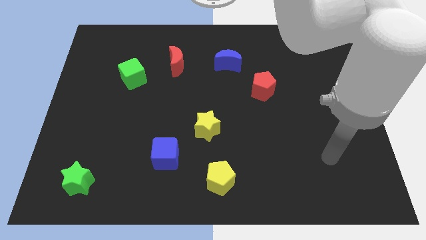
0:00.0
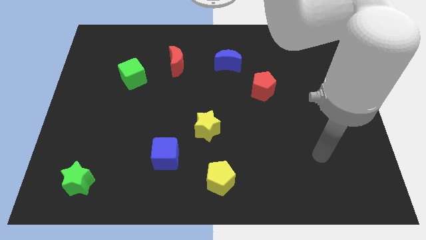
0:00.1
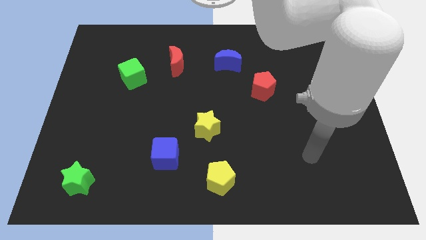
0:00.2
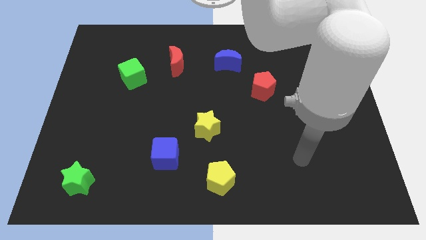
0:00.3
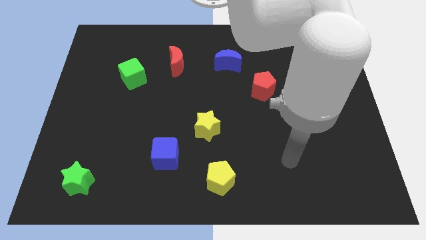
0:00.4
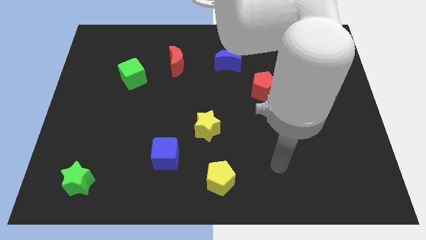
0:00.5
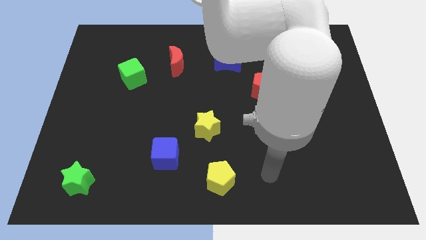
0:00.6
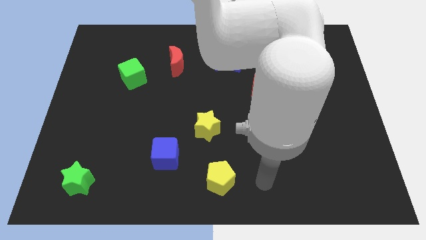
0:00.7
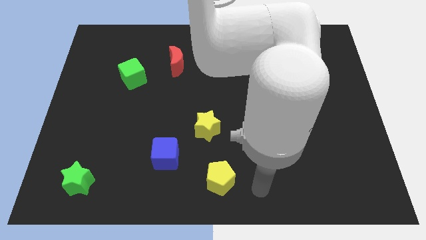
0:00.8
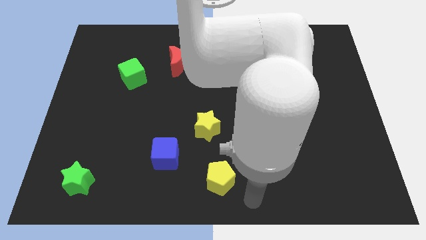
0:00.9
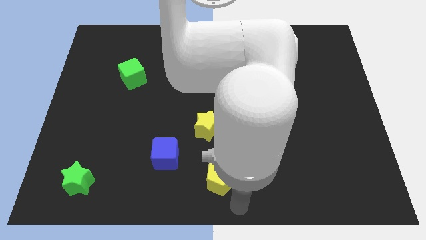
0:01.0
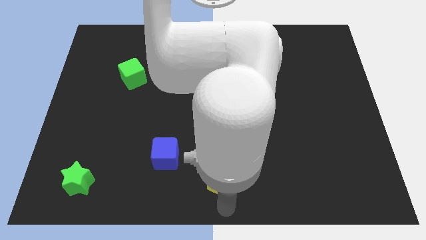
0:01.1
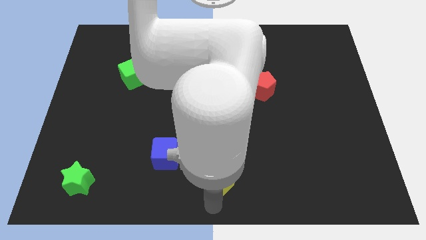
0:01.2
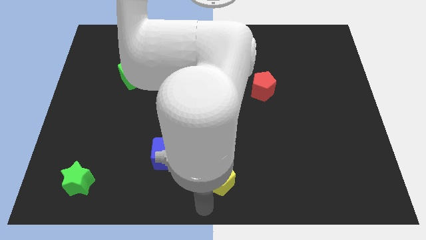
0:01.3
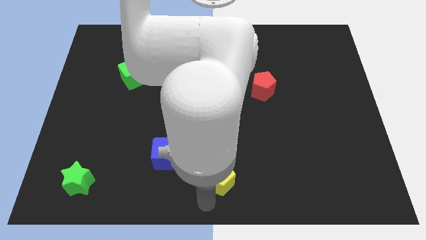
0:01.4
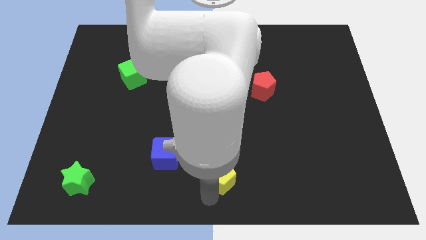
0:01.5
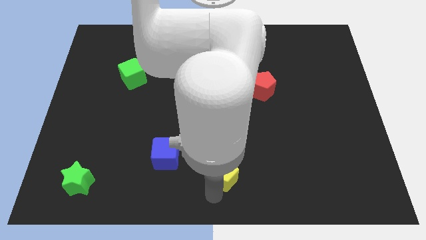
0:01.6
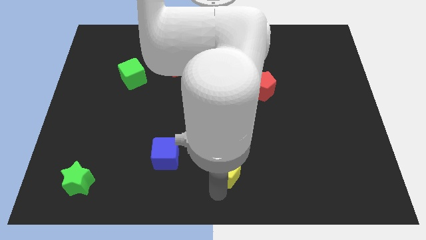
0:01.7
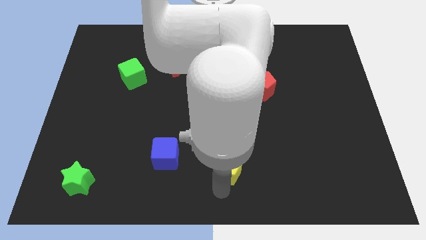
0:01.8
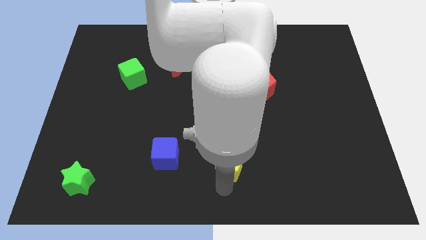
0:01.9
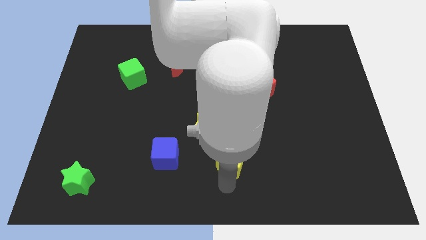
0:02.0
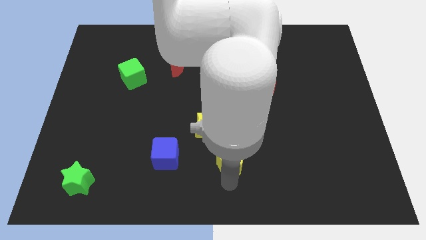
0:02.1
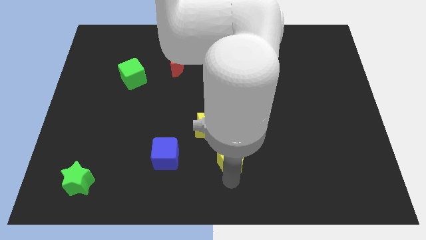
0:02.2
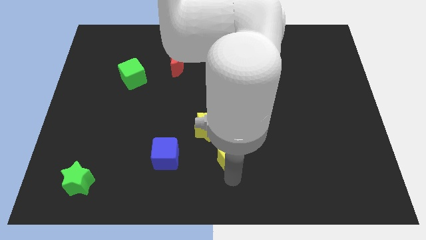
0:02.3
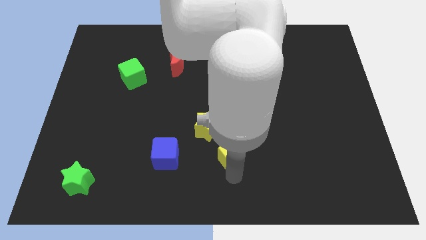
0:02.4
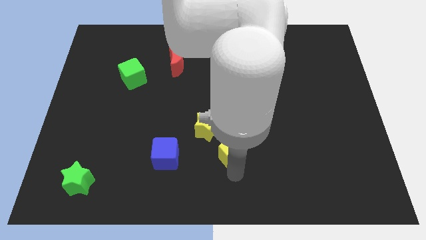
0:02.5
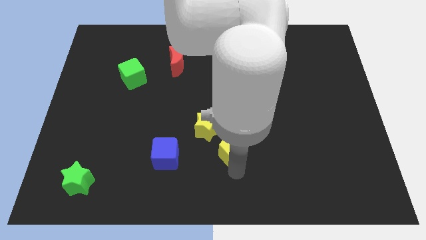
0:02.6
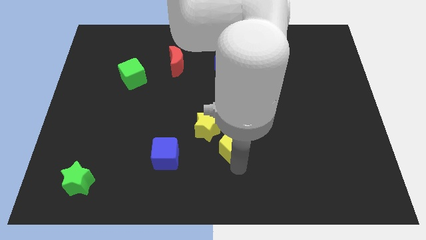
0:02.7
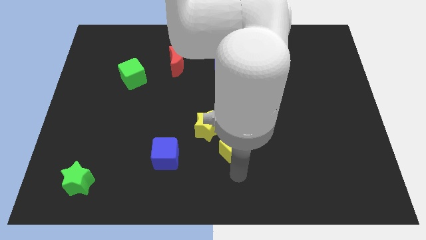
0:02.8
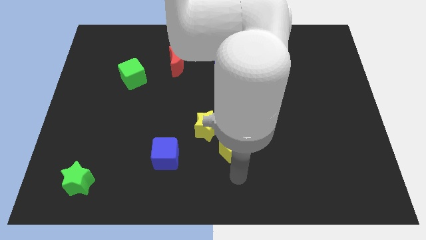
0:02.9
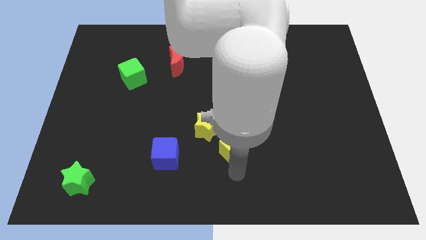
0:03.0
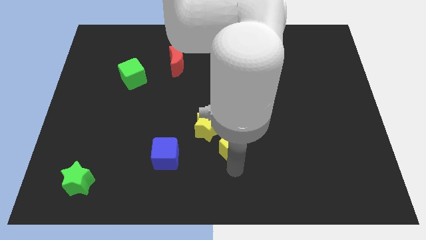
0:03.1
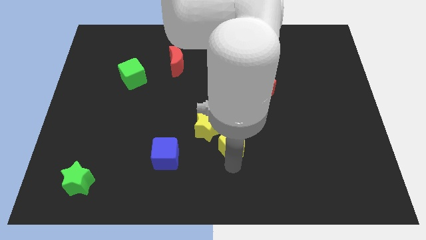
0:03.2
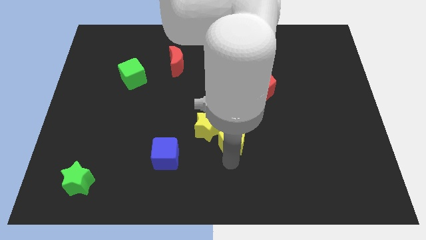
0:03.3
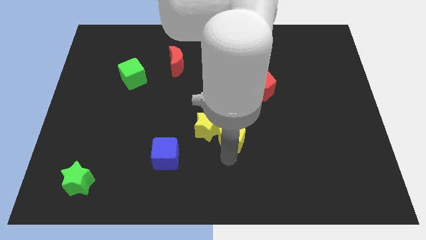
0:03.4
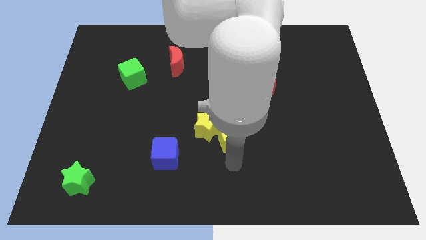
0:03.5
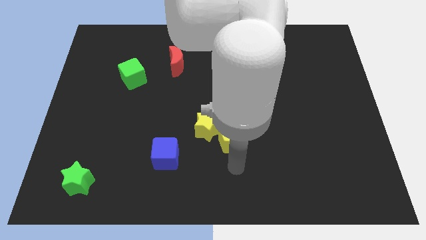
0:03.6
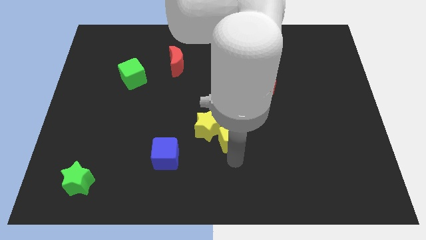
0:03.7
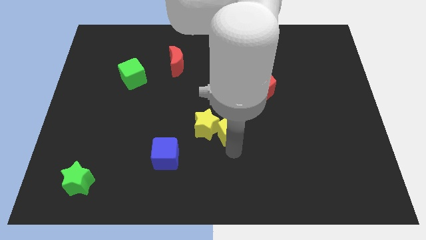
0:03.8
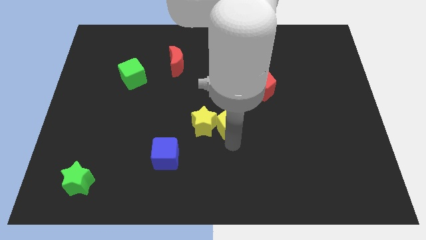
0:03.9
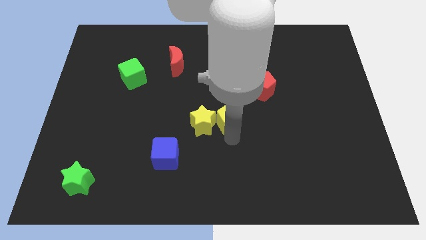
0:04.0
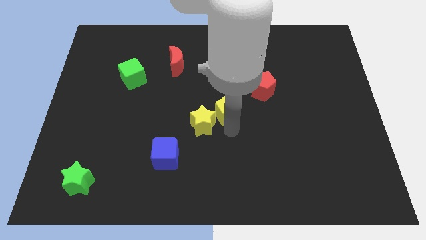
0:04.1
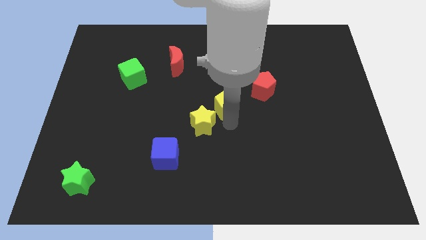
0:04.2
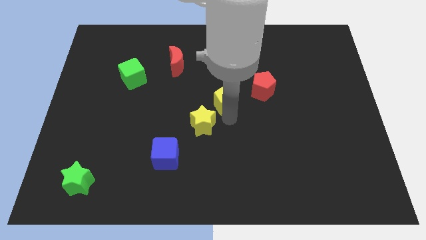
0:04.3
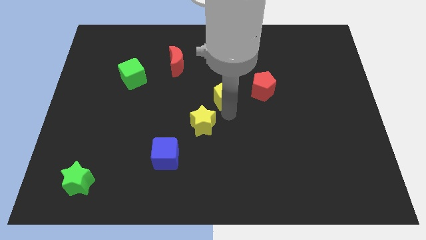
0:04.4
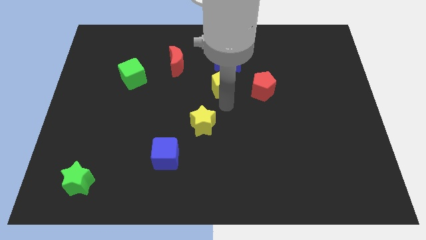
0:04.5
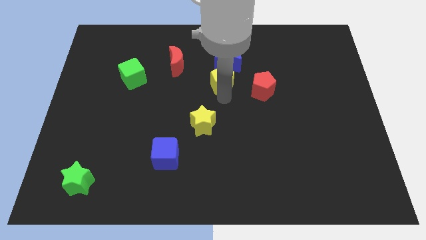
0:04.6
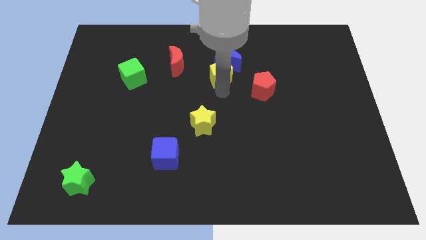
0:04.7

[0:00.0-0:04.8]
put the yellow pentagon to the blue moon

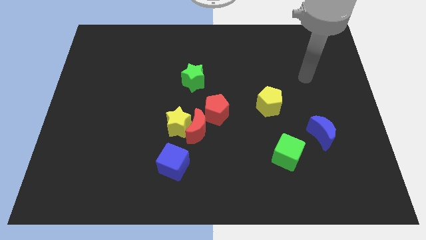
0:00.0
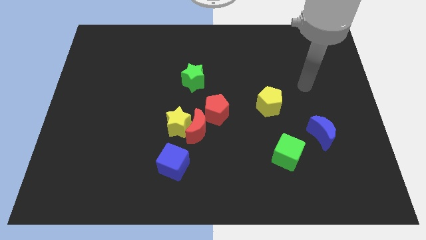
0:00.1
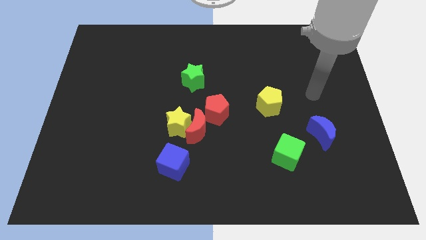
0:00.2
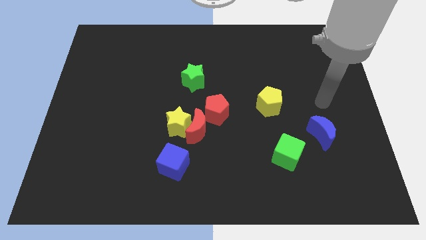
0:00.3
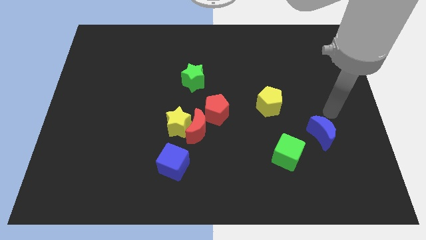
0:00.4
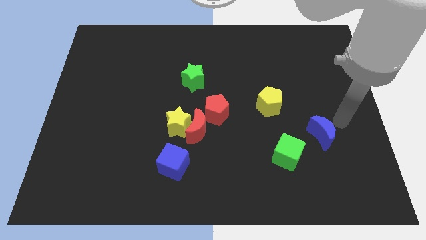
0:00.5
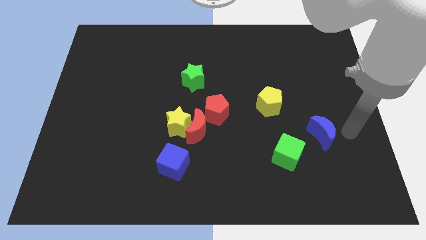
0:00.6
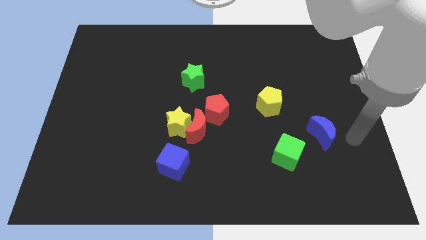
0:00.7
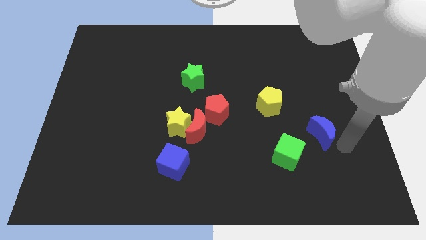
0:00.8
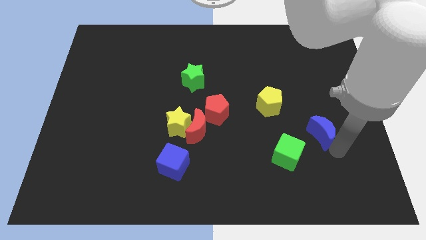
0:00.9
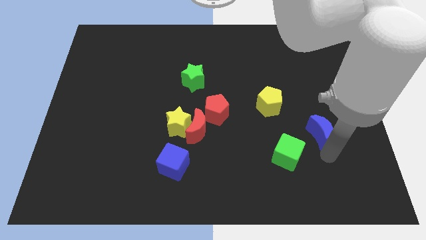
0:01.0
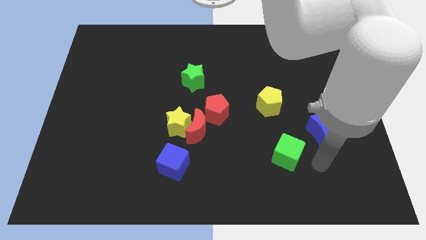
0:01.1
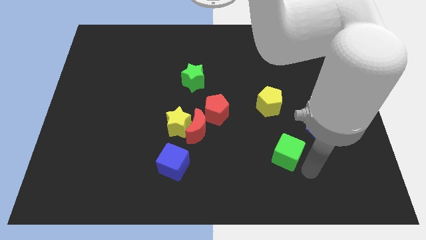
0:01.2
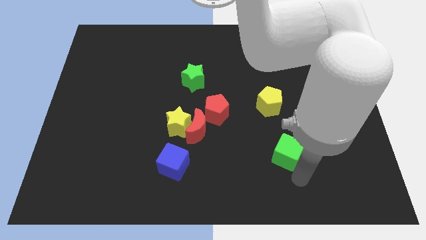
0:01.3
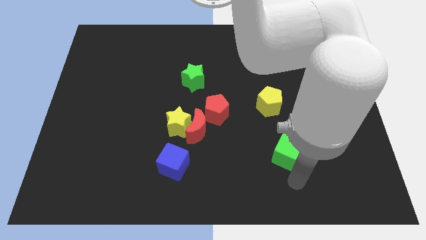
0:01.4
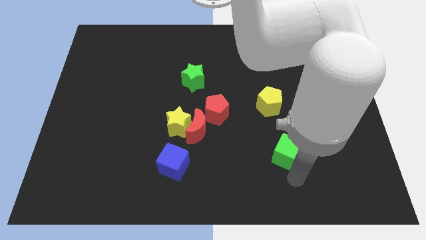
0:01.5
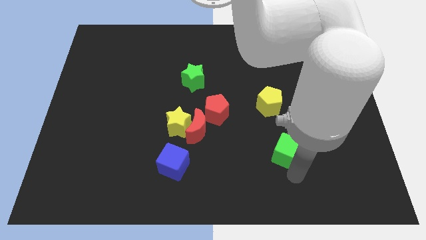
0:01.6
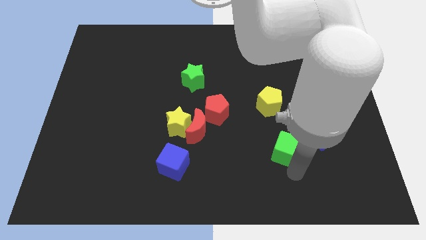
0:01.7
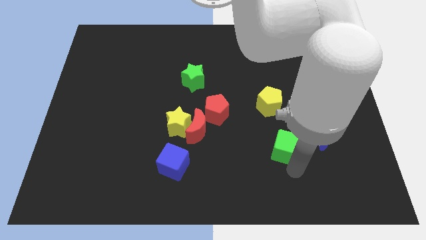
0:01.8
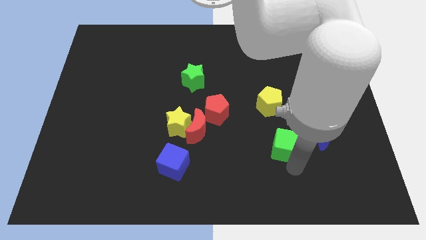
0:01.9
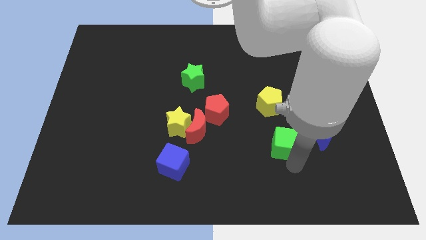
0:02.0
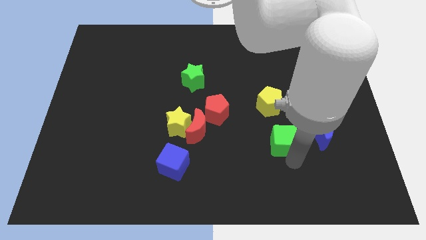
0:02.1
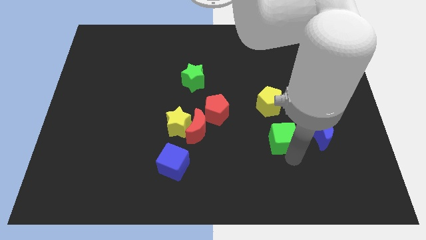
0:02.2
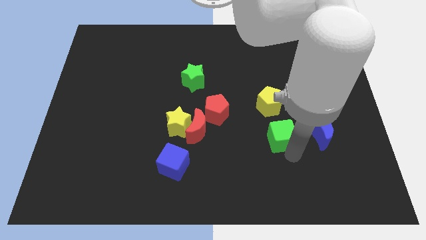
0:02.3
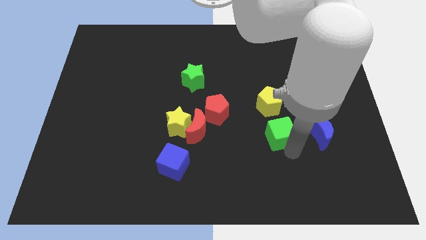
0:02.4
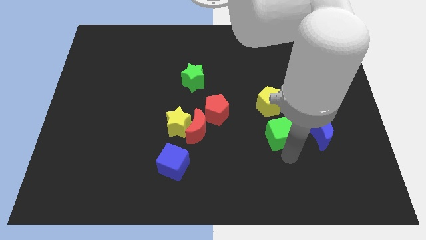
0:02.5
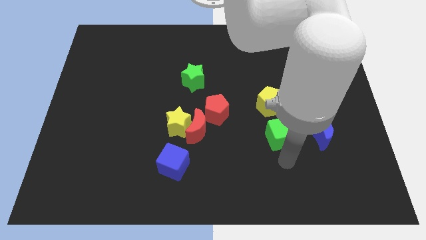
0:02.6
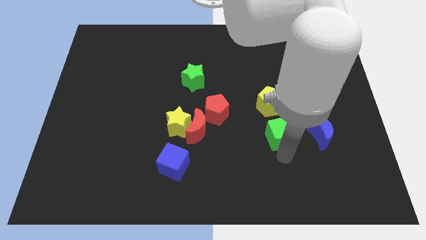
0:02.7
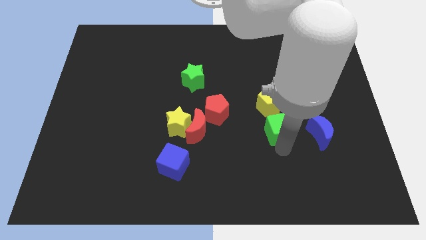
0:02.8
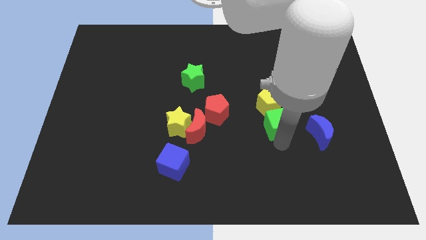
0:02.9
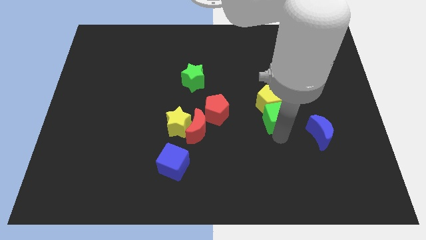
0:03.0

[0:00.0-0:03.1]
put the green cube towards the yellow pentagon
